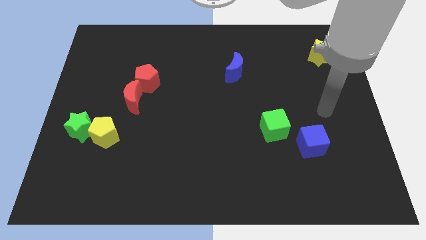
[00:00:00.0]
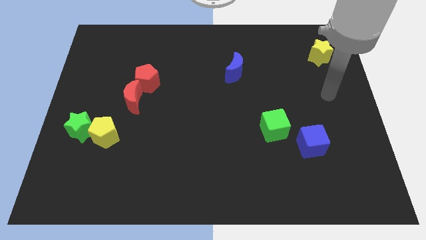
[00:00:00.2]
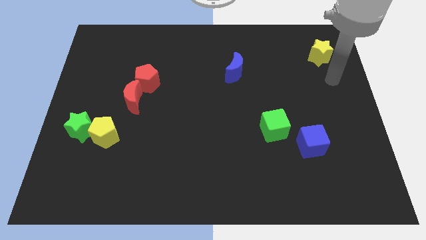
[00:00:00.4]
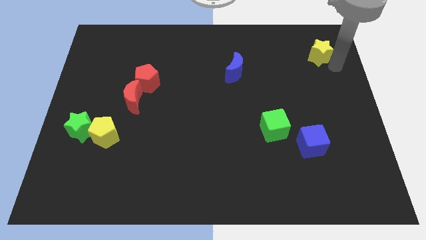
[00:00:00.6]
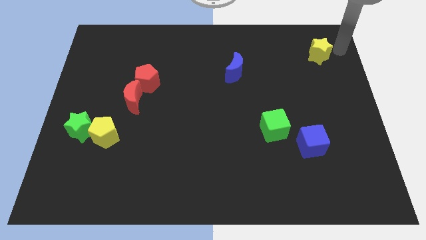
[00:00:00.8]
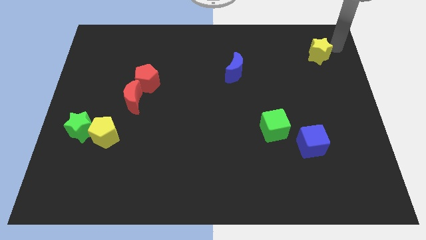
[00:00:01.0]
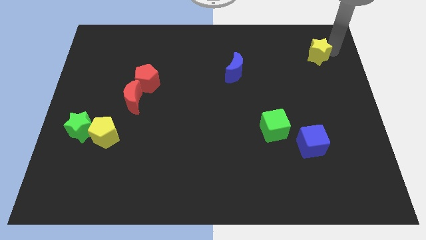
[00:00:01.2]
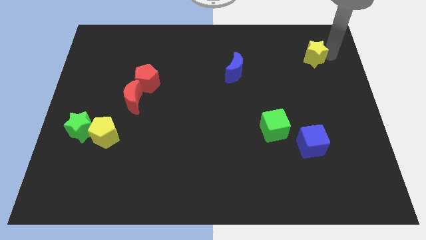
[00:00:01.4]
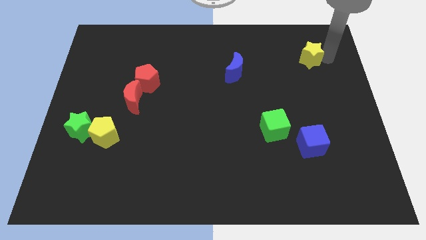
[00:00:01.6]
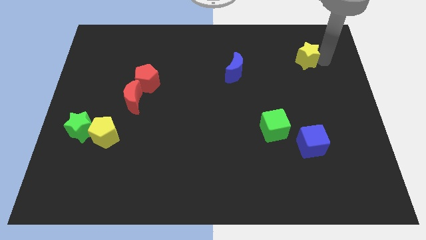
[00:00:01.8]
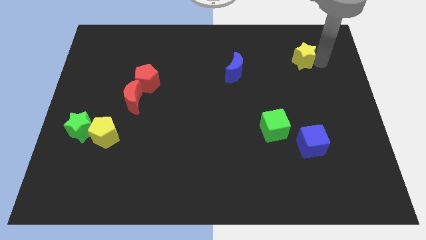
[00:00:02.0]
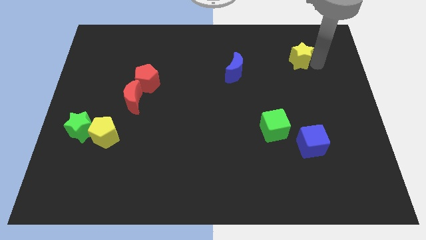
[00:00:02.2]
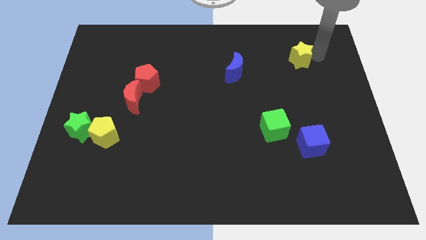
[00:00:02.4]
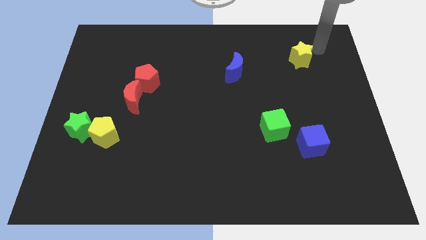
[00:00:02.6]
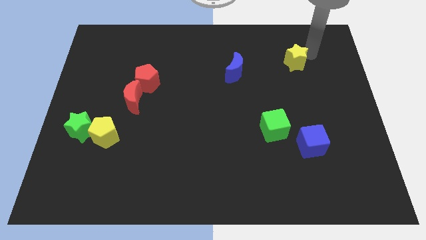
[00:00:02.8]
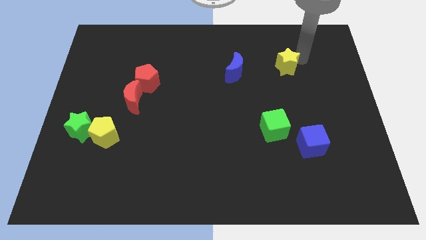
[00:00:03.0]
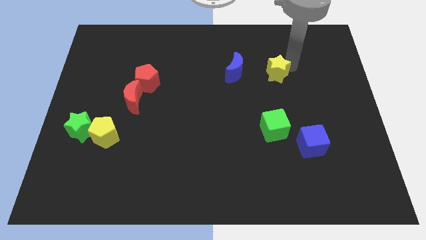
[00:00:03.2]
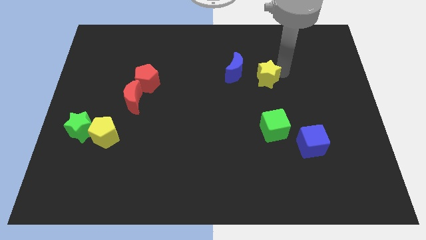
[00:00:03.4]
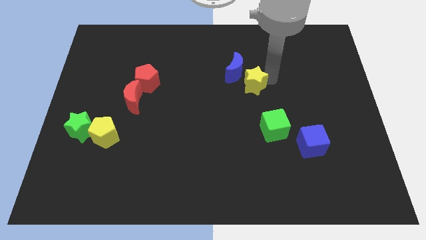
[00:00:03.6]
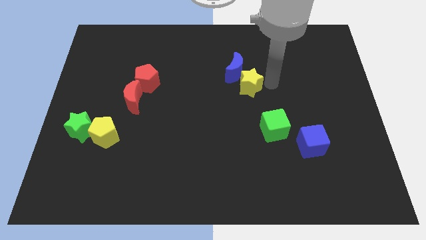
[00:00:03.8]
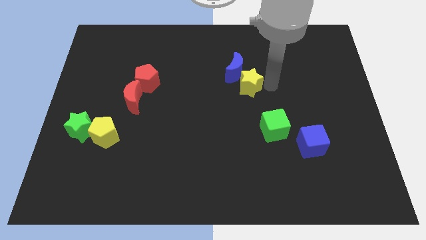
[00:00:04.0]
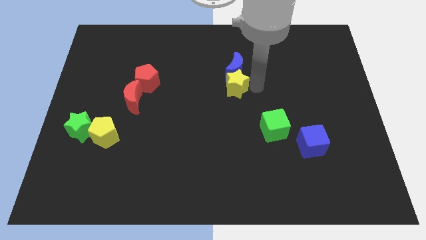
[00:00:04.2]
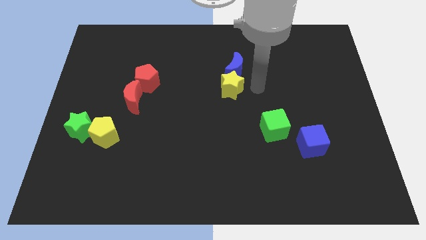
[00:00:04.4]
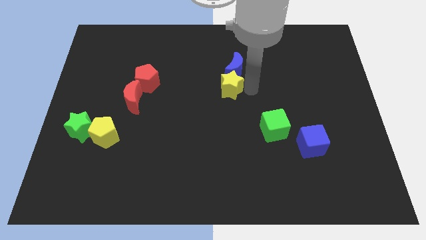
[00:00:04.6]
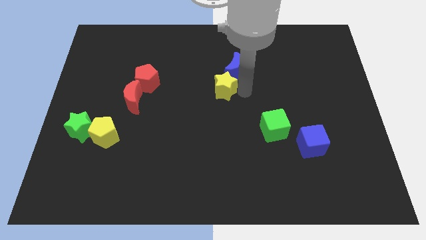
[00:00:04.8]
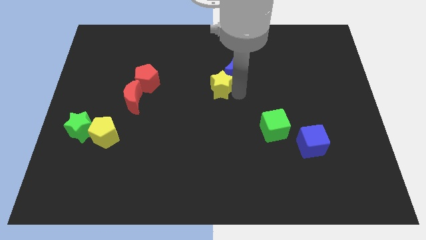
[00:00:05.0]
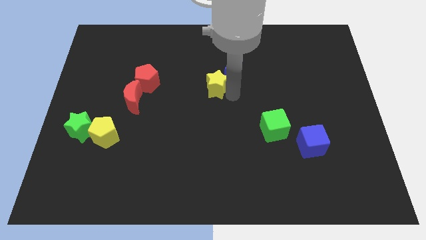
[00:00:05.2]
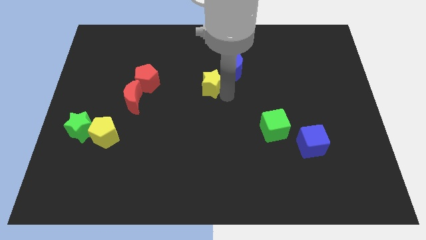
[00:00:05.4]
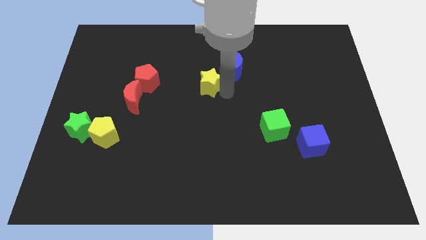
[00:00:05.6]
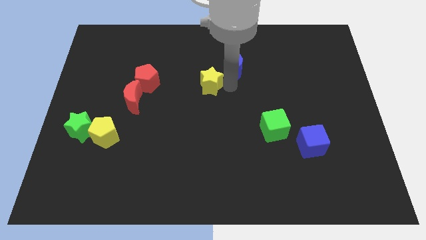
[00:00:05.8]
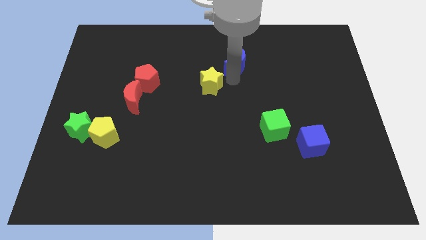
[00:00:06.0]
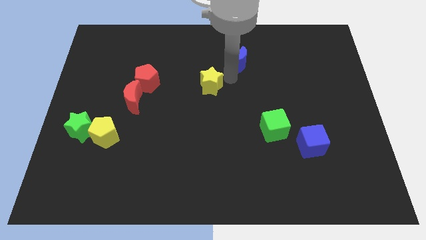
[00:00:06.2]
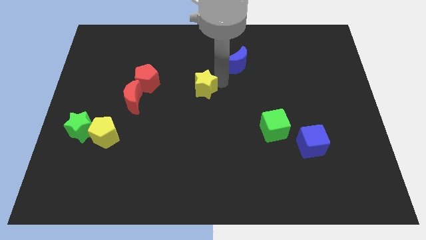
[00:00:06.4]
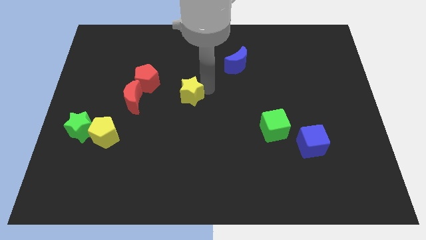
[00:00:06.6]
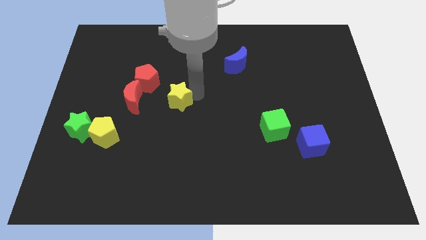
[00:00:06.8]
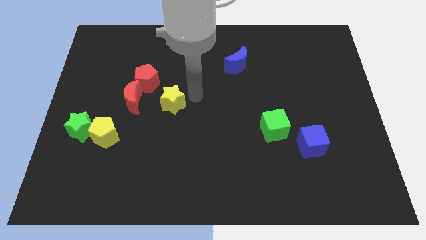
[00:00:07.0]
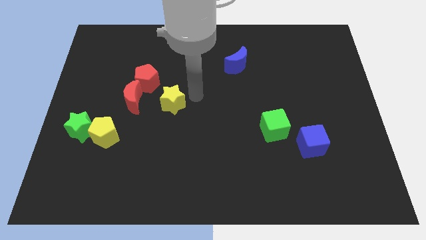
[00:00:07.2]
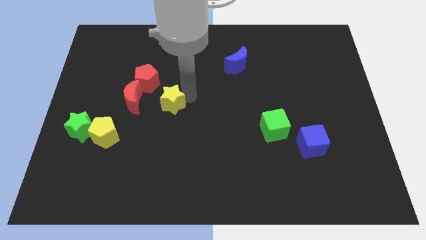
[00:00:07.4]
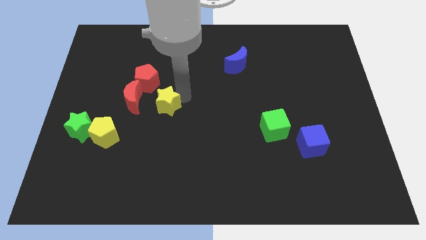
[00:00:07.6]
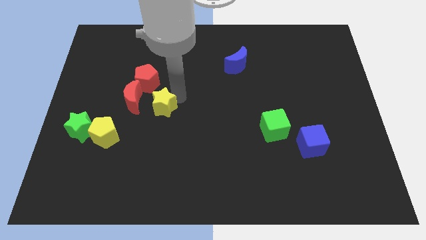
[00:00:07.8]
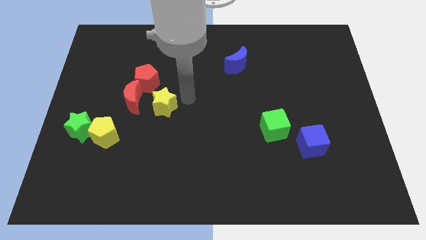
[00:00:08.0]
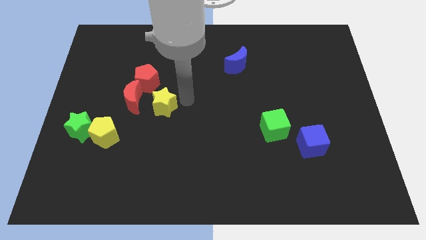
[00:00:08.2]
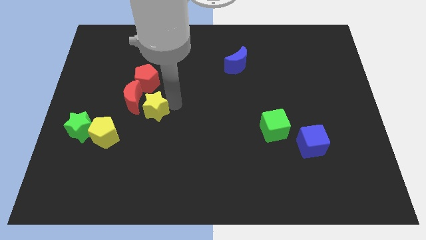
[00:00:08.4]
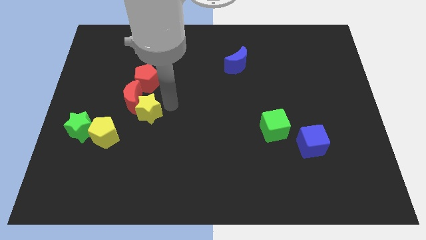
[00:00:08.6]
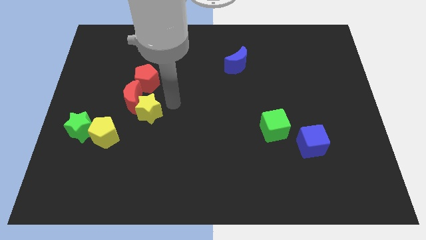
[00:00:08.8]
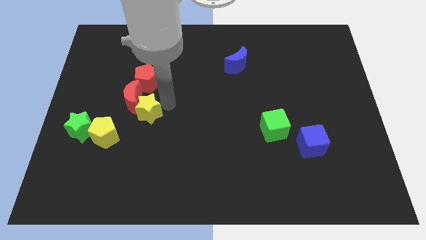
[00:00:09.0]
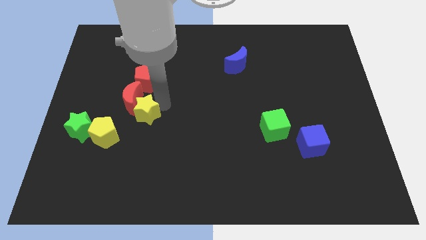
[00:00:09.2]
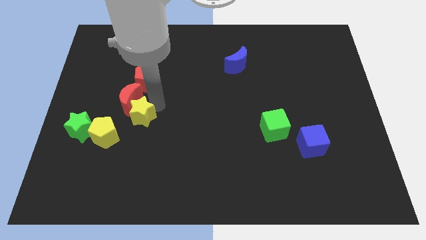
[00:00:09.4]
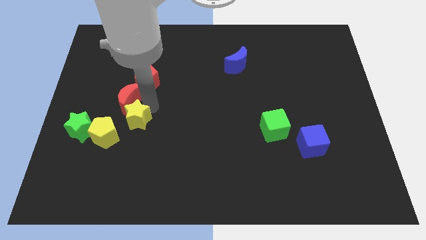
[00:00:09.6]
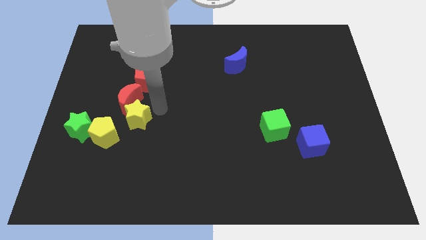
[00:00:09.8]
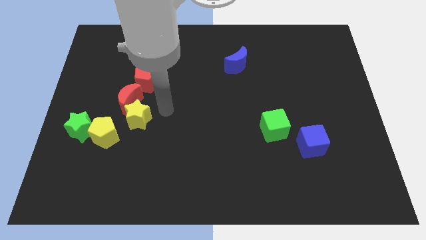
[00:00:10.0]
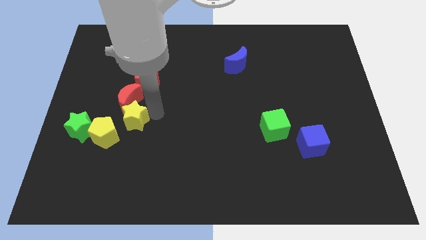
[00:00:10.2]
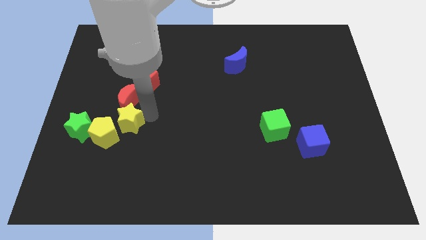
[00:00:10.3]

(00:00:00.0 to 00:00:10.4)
put the yellow star towards the yellow pentagon

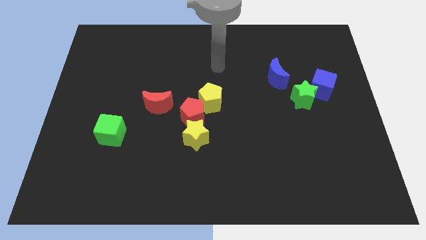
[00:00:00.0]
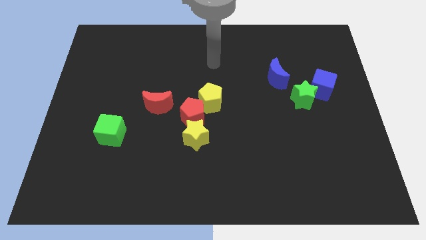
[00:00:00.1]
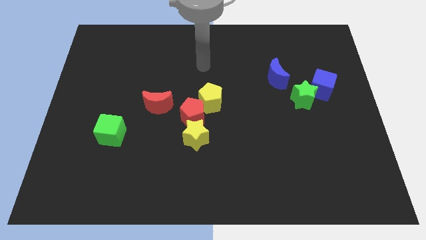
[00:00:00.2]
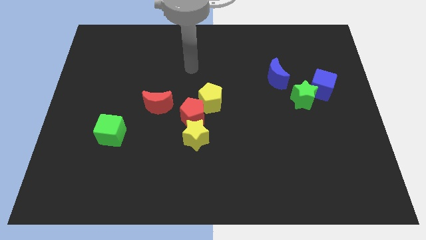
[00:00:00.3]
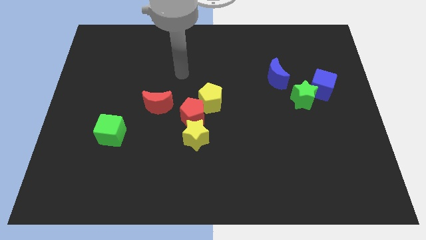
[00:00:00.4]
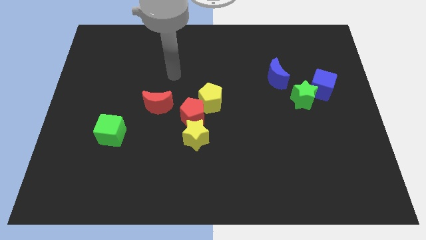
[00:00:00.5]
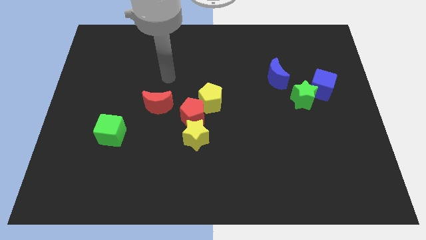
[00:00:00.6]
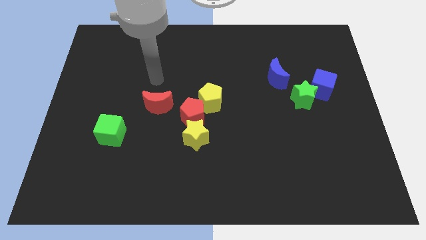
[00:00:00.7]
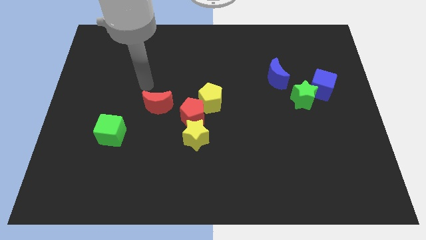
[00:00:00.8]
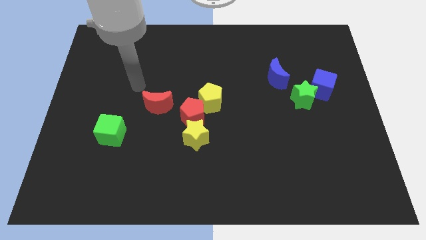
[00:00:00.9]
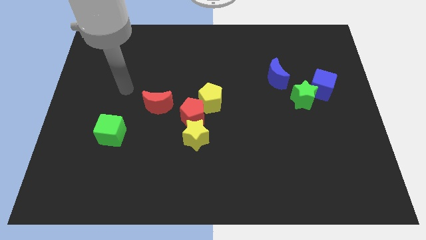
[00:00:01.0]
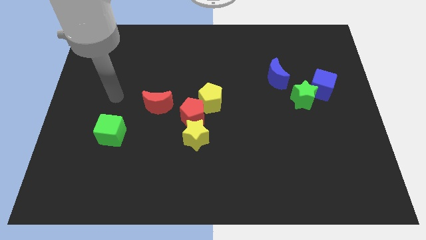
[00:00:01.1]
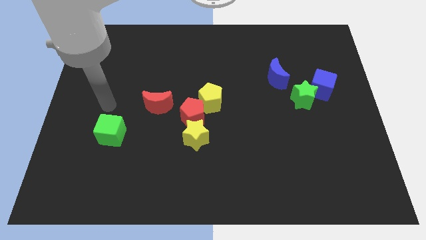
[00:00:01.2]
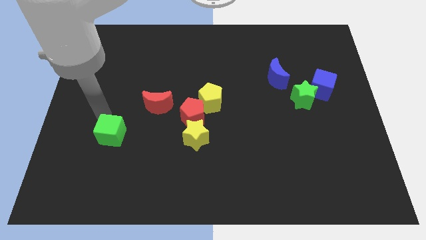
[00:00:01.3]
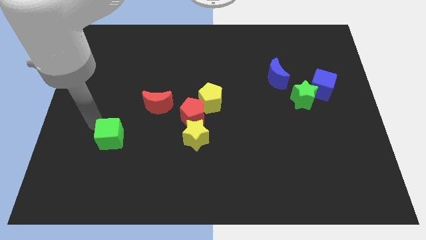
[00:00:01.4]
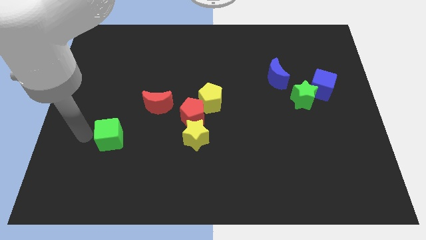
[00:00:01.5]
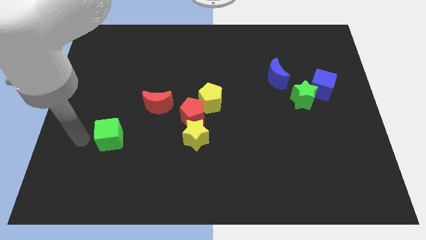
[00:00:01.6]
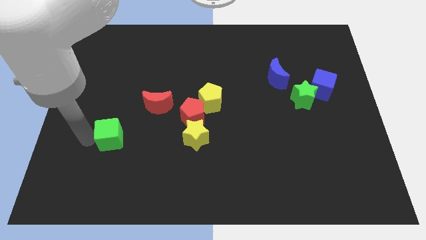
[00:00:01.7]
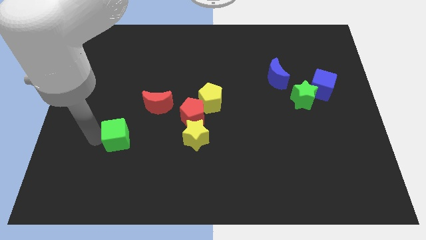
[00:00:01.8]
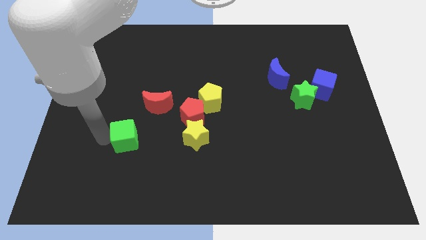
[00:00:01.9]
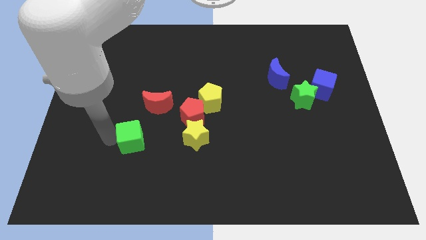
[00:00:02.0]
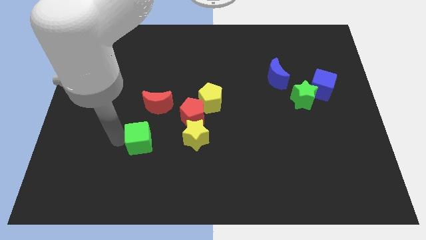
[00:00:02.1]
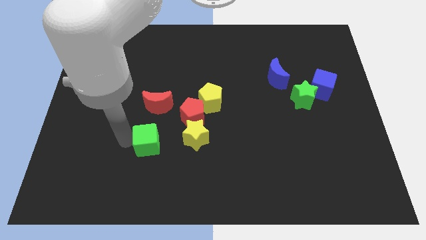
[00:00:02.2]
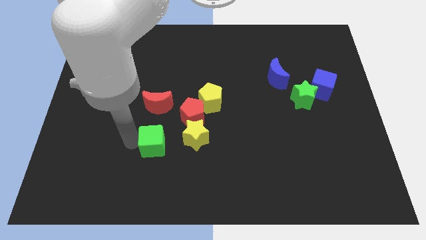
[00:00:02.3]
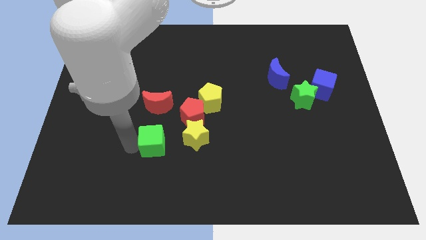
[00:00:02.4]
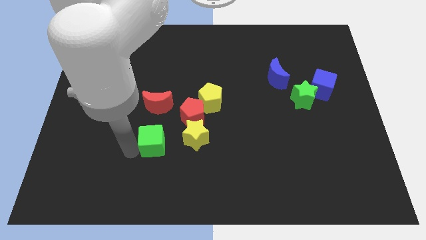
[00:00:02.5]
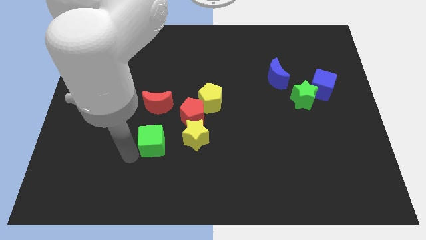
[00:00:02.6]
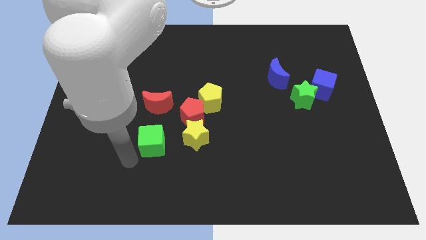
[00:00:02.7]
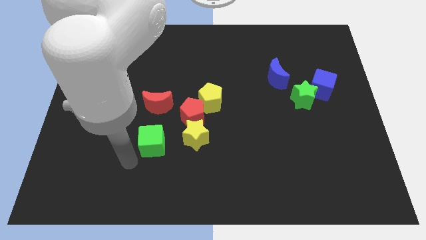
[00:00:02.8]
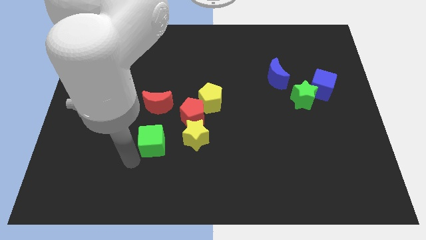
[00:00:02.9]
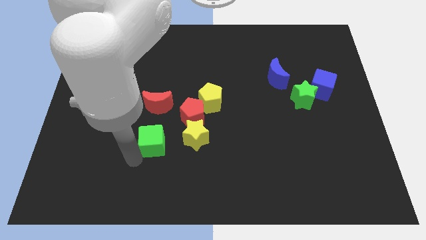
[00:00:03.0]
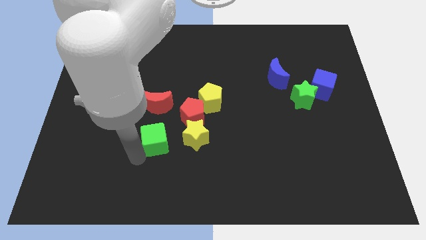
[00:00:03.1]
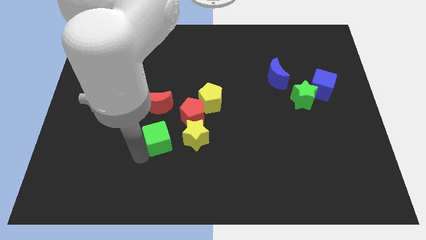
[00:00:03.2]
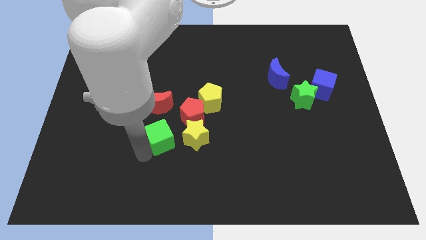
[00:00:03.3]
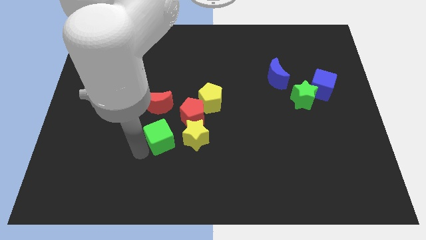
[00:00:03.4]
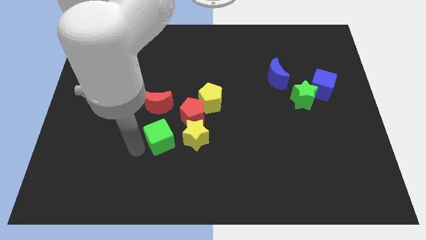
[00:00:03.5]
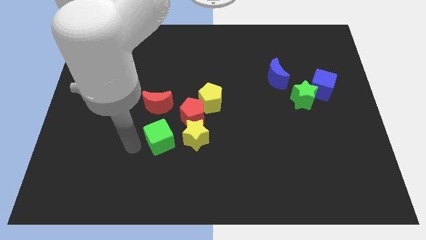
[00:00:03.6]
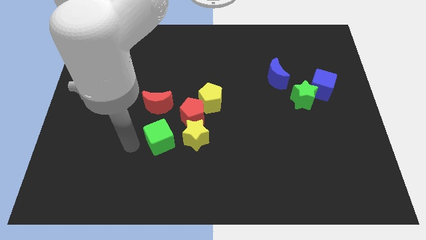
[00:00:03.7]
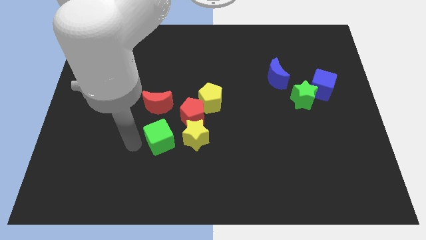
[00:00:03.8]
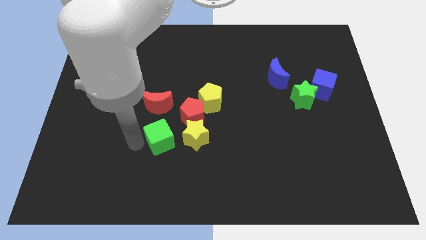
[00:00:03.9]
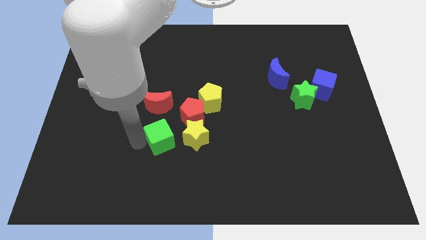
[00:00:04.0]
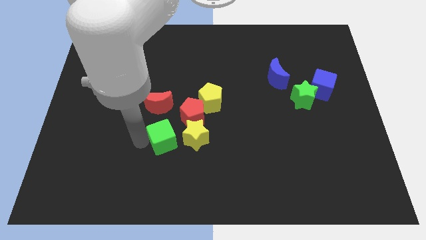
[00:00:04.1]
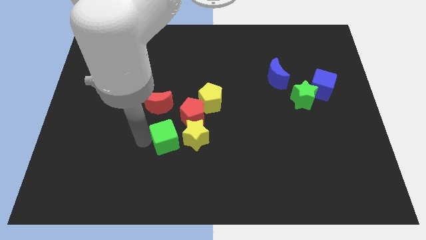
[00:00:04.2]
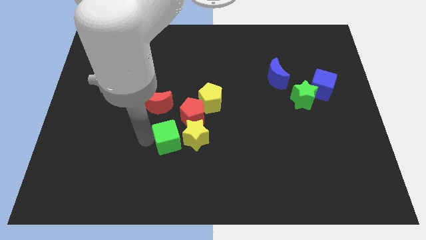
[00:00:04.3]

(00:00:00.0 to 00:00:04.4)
push the green cube close to the yellow star
